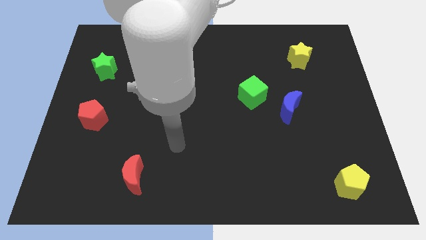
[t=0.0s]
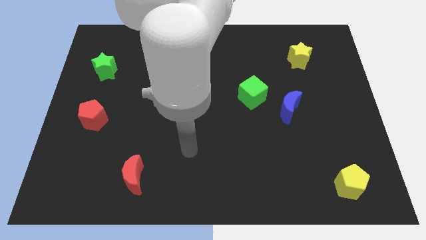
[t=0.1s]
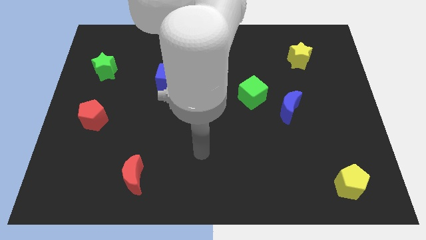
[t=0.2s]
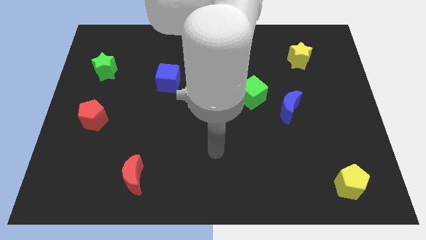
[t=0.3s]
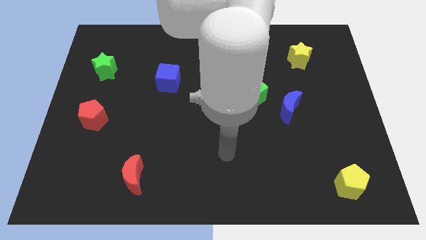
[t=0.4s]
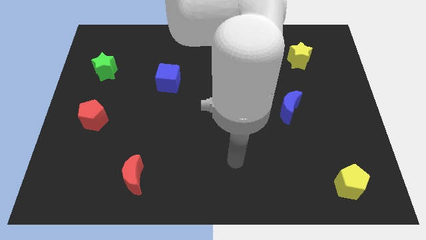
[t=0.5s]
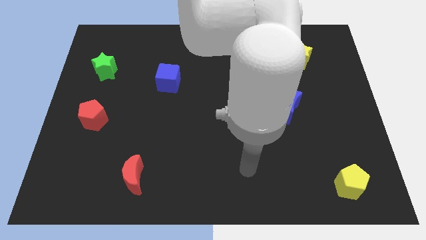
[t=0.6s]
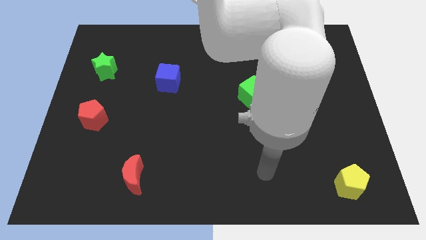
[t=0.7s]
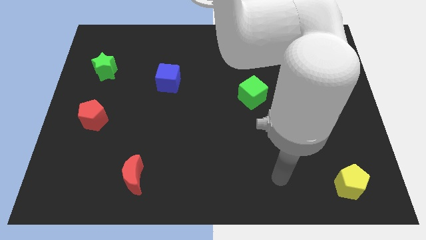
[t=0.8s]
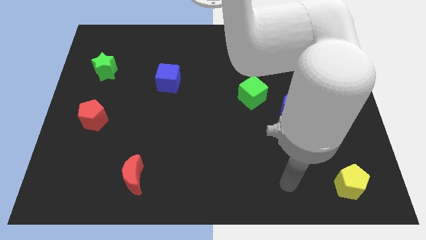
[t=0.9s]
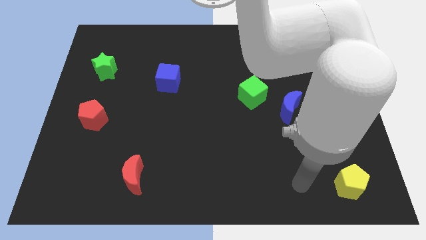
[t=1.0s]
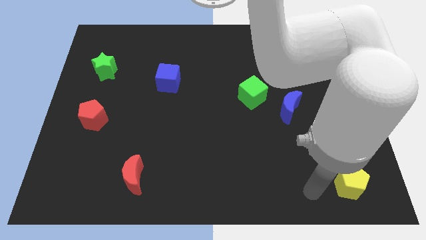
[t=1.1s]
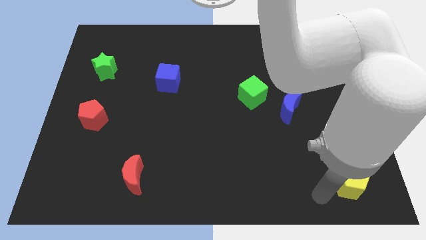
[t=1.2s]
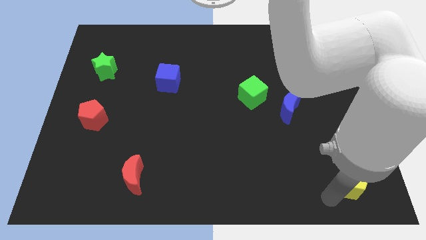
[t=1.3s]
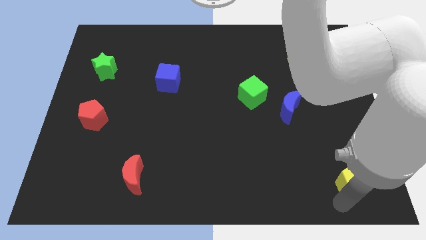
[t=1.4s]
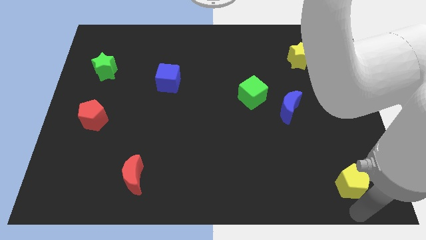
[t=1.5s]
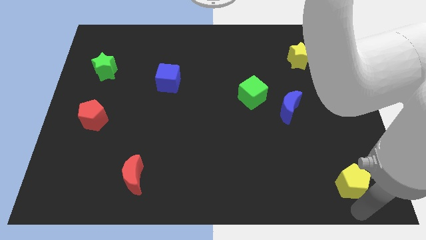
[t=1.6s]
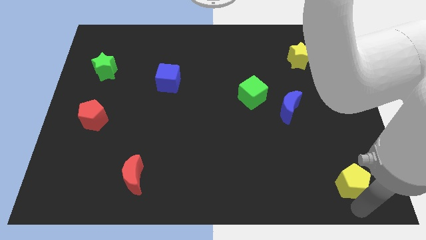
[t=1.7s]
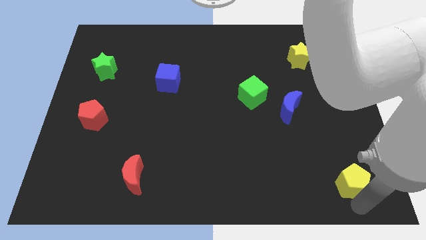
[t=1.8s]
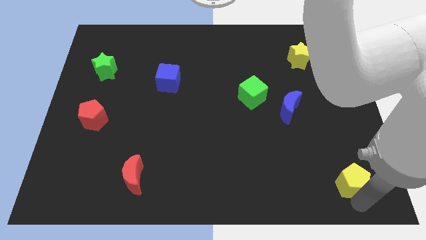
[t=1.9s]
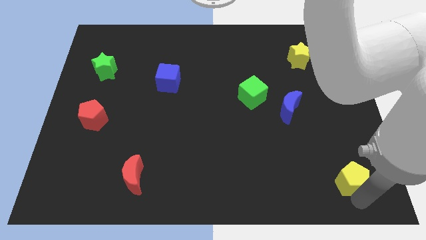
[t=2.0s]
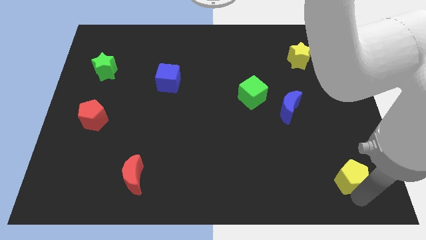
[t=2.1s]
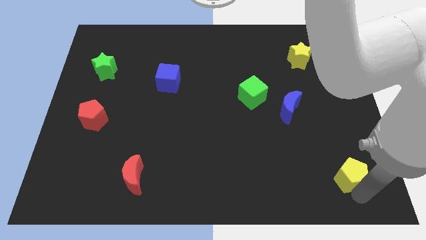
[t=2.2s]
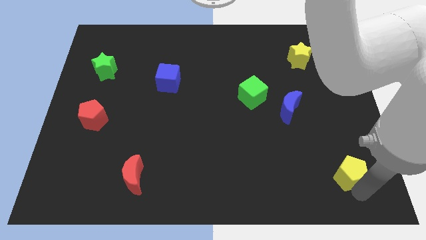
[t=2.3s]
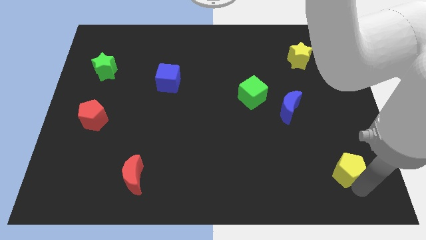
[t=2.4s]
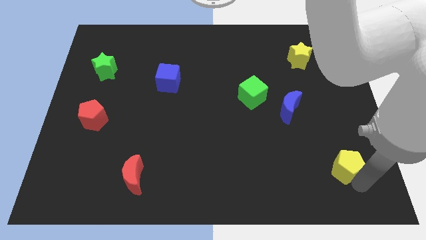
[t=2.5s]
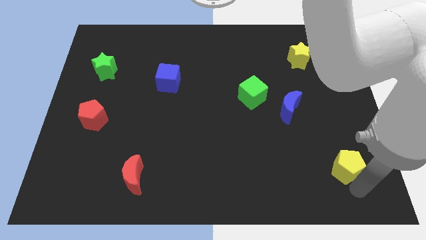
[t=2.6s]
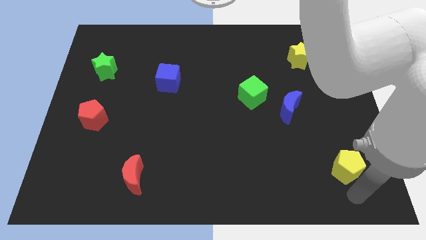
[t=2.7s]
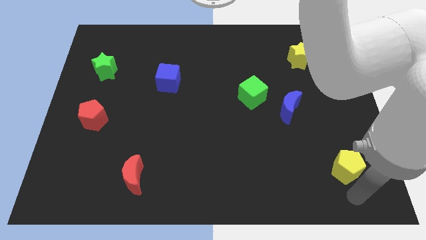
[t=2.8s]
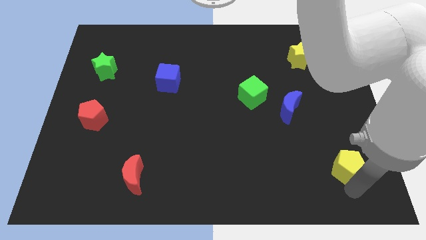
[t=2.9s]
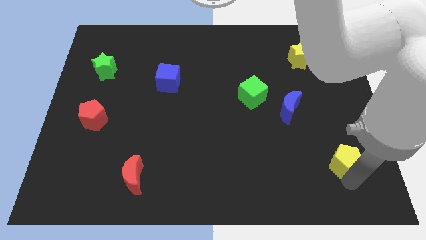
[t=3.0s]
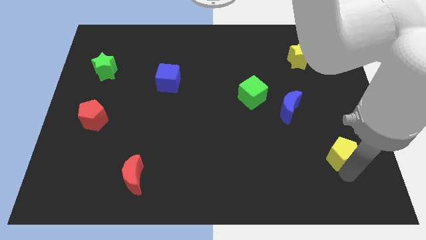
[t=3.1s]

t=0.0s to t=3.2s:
push the yellow pentagon up slightly

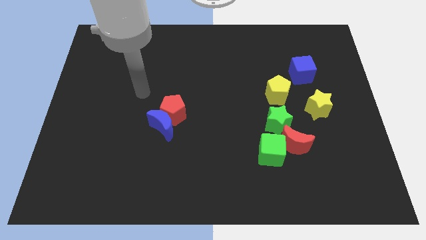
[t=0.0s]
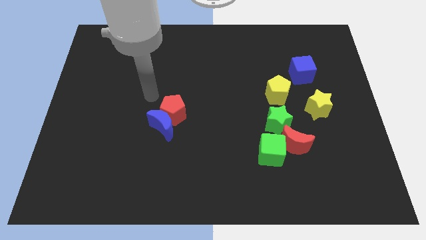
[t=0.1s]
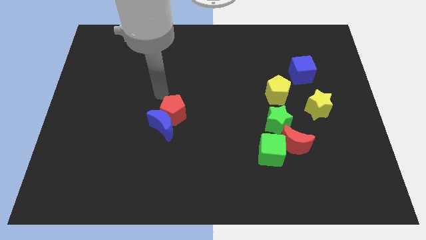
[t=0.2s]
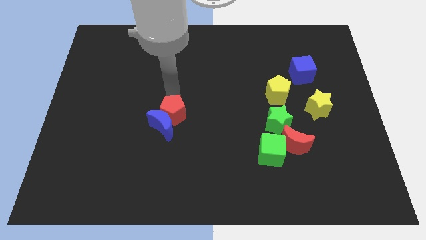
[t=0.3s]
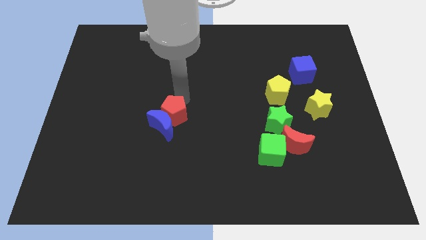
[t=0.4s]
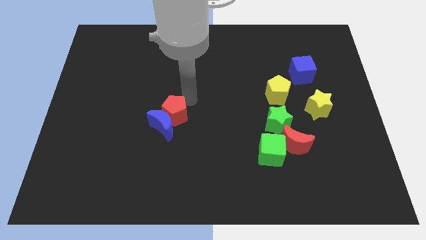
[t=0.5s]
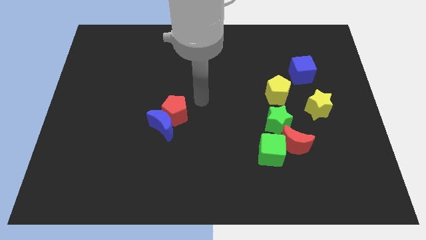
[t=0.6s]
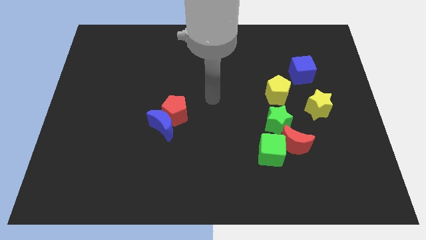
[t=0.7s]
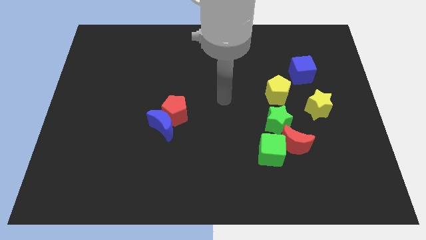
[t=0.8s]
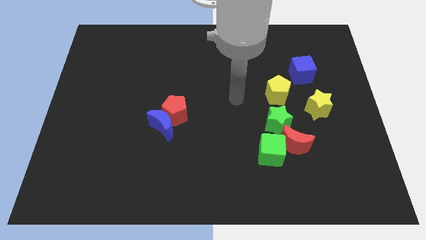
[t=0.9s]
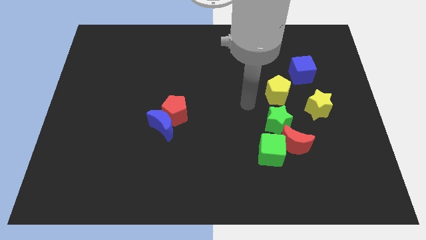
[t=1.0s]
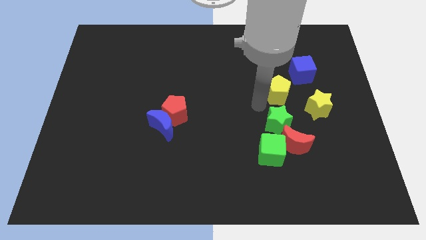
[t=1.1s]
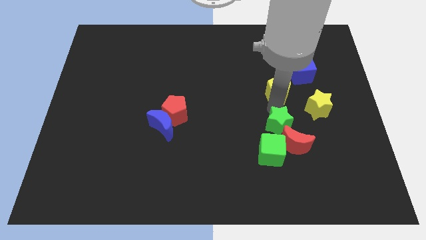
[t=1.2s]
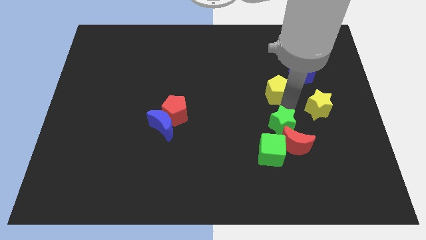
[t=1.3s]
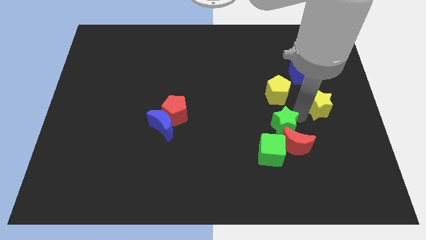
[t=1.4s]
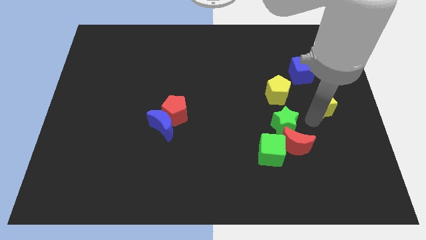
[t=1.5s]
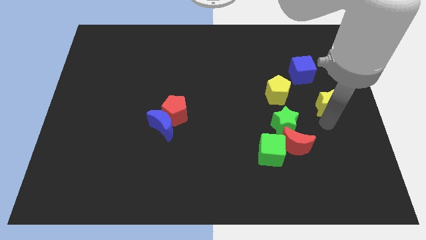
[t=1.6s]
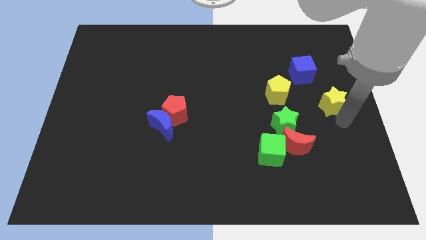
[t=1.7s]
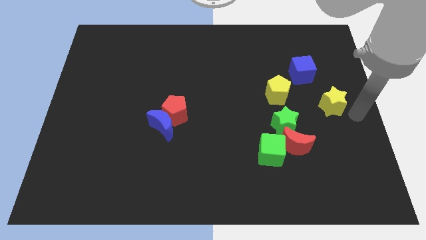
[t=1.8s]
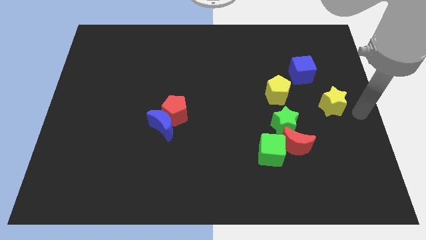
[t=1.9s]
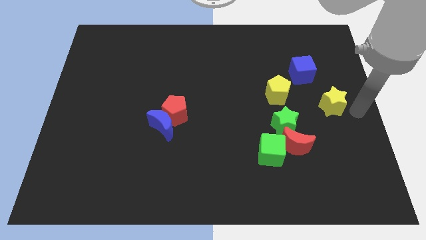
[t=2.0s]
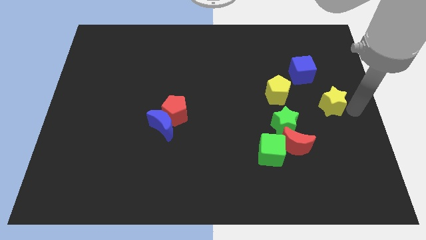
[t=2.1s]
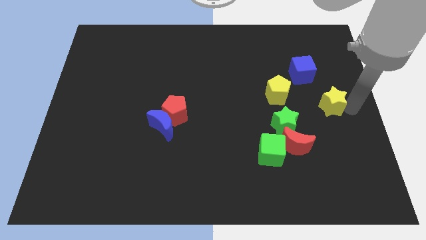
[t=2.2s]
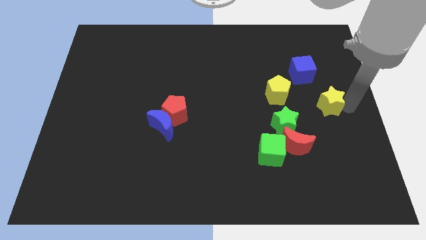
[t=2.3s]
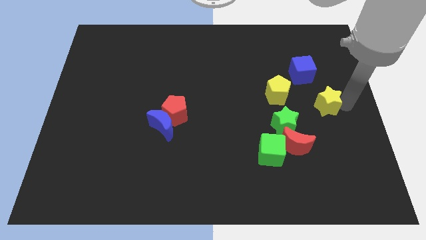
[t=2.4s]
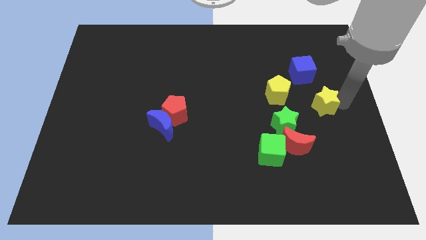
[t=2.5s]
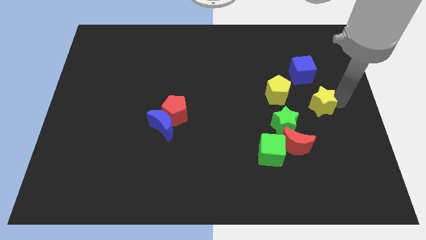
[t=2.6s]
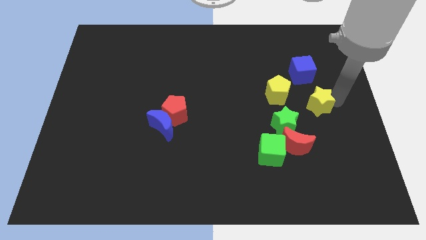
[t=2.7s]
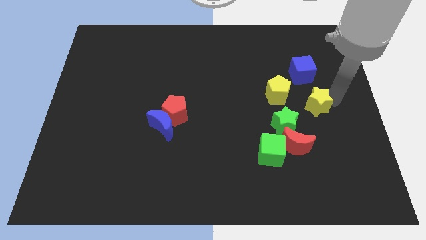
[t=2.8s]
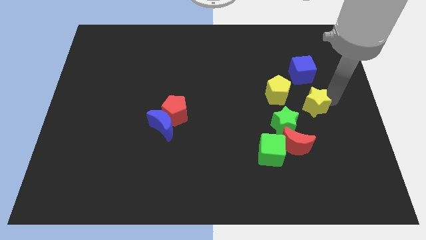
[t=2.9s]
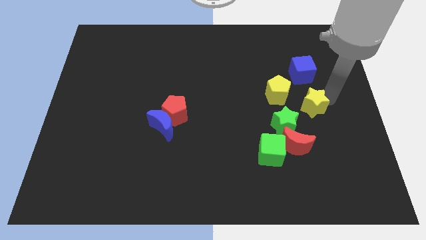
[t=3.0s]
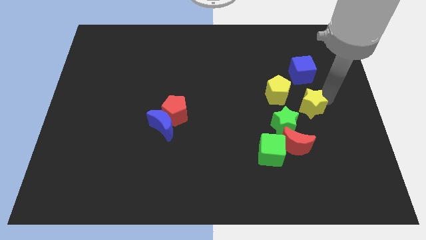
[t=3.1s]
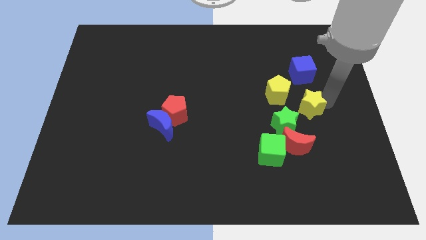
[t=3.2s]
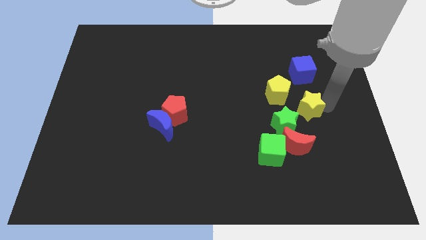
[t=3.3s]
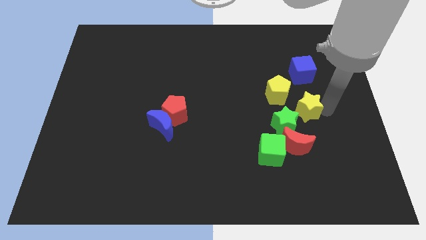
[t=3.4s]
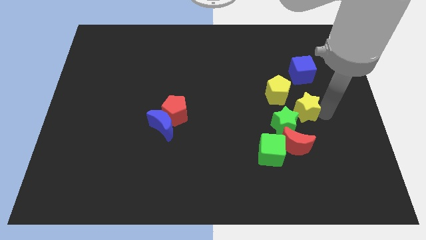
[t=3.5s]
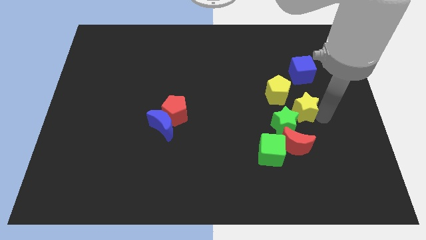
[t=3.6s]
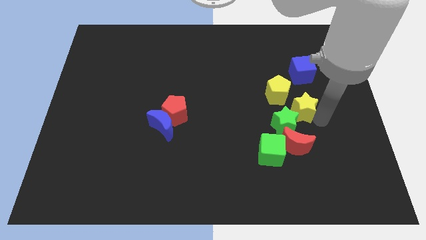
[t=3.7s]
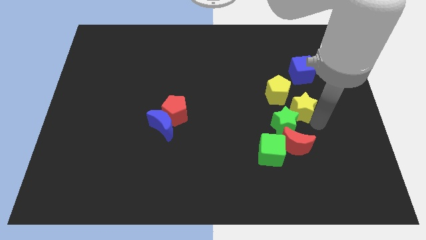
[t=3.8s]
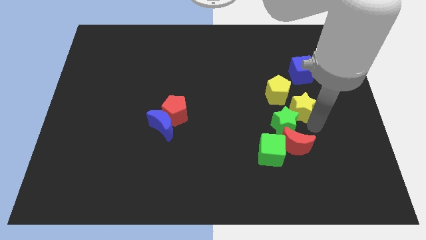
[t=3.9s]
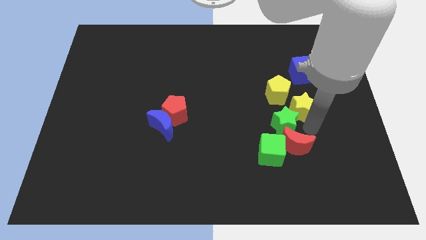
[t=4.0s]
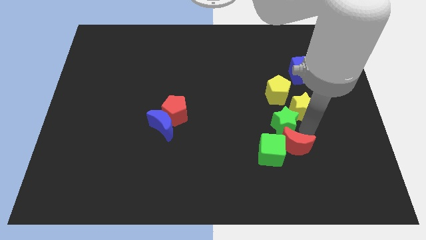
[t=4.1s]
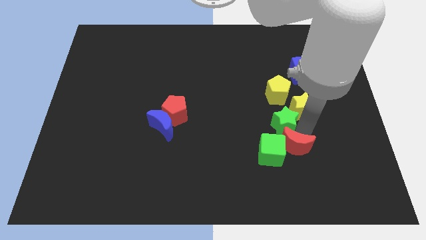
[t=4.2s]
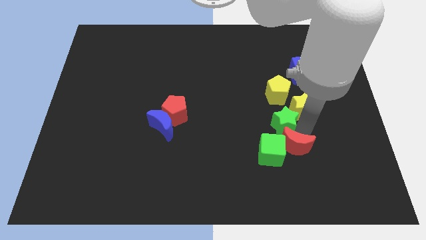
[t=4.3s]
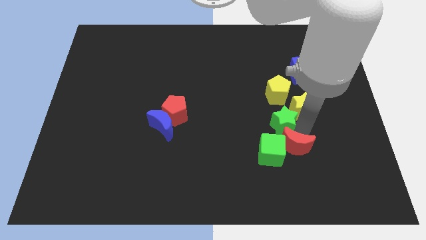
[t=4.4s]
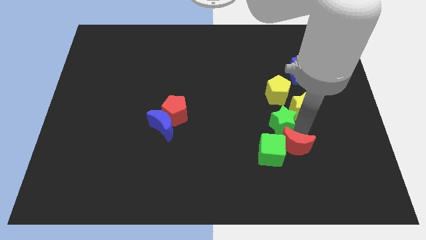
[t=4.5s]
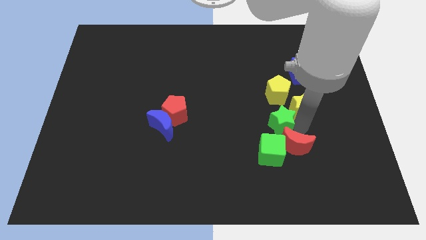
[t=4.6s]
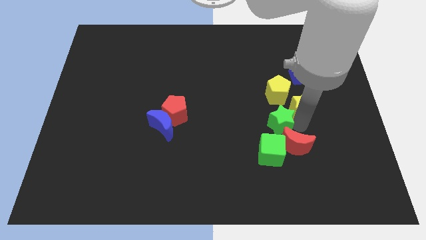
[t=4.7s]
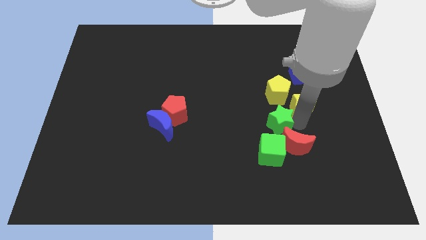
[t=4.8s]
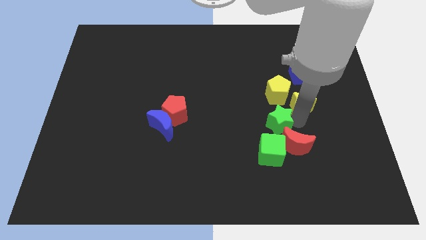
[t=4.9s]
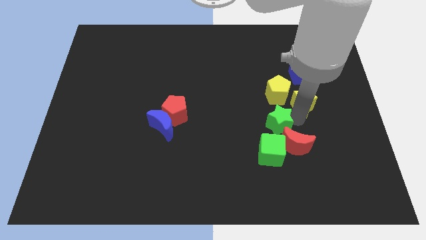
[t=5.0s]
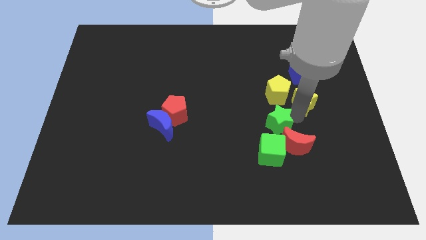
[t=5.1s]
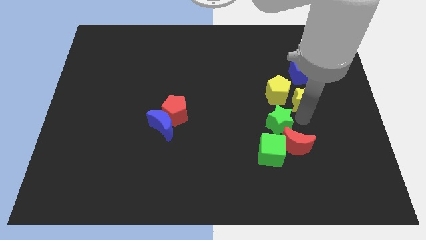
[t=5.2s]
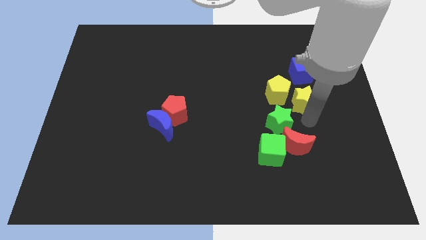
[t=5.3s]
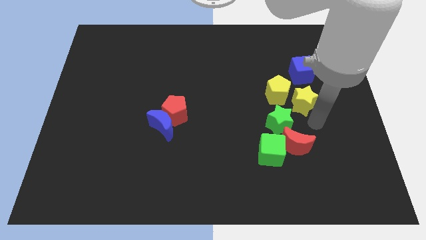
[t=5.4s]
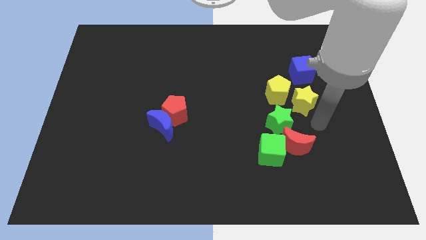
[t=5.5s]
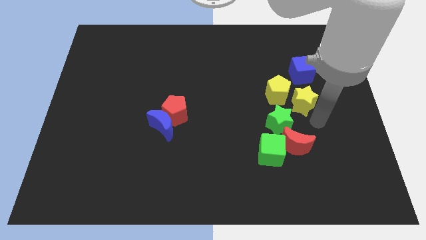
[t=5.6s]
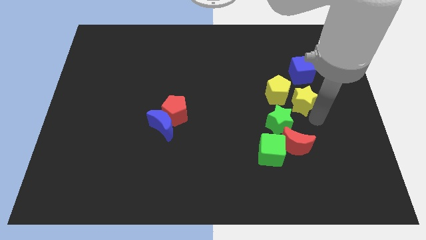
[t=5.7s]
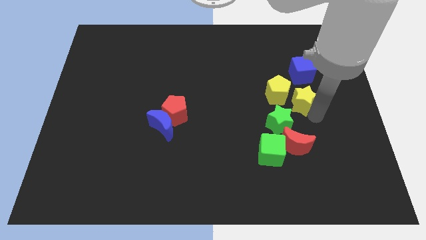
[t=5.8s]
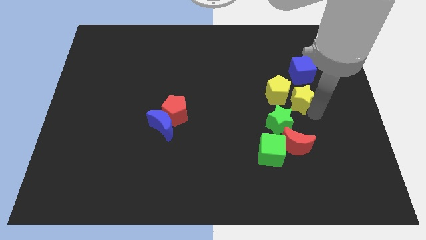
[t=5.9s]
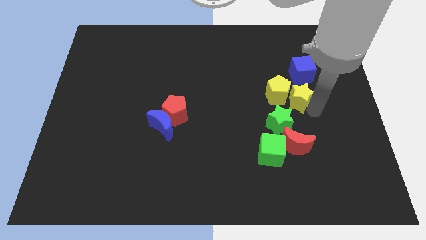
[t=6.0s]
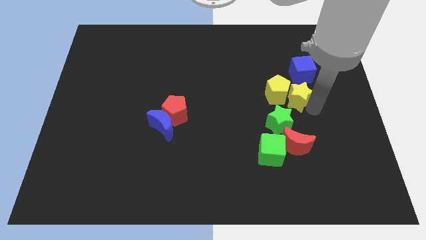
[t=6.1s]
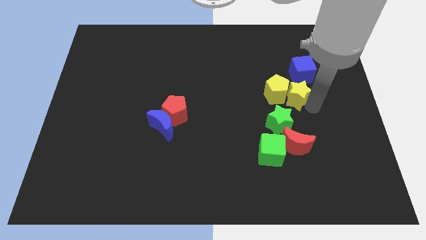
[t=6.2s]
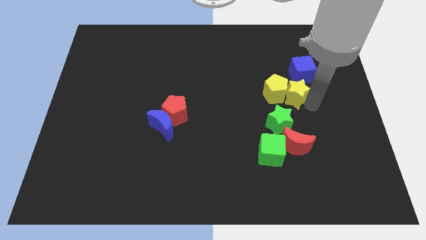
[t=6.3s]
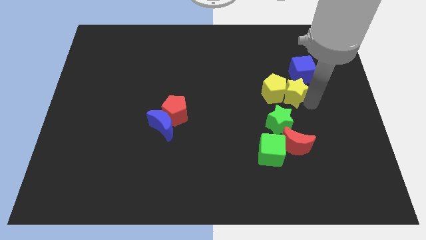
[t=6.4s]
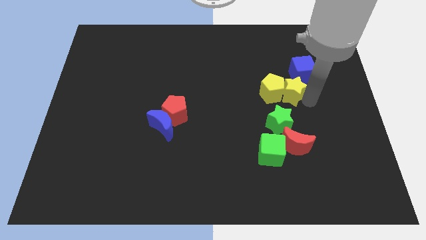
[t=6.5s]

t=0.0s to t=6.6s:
move the yellow star a little upwards and then left
